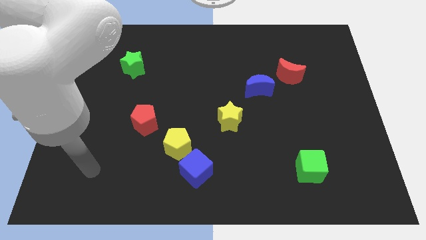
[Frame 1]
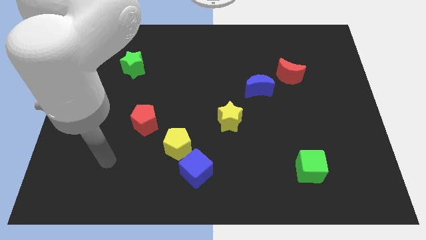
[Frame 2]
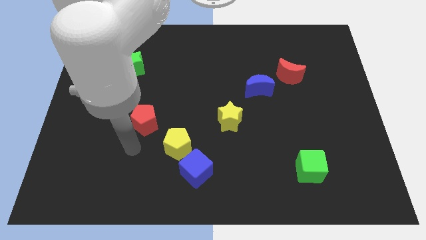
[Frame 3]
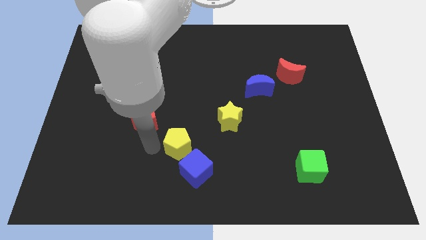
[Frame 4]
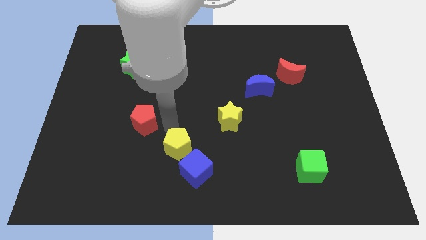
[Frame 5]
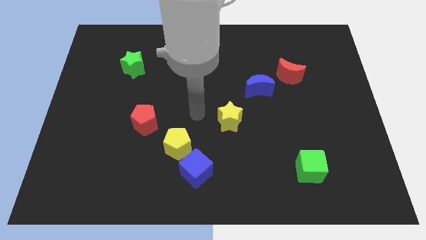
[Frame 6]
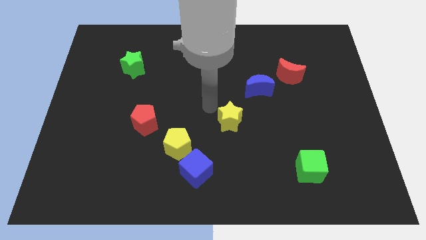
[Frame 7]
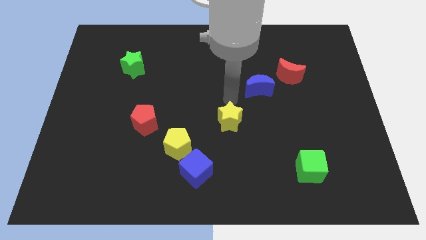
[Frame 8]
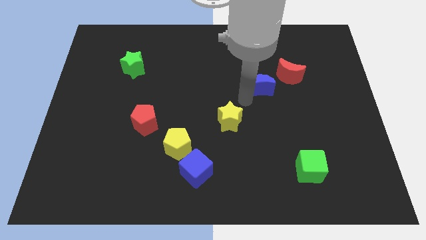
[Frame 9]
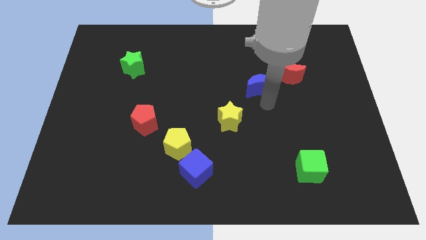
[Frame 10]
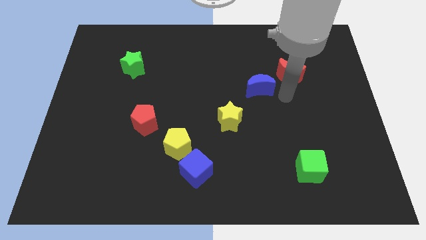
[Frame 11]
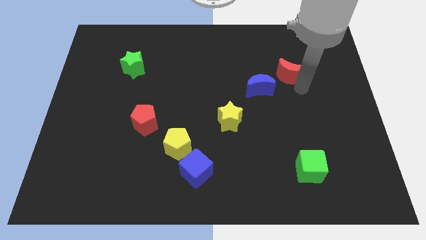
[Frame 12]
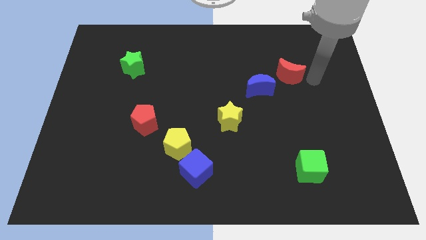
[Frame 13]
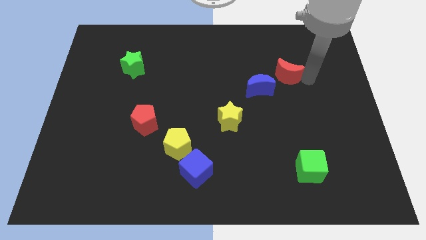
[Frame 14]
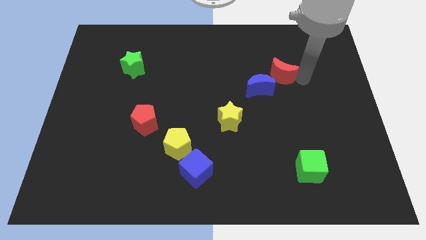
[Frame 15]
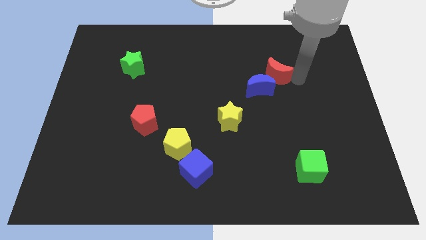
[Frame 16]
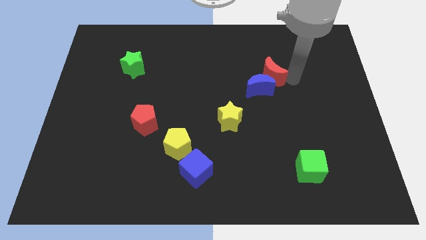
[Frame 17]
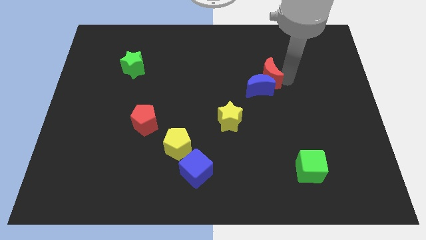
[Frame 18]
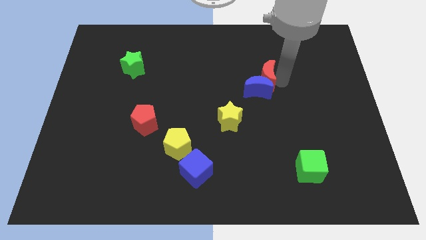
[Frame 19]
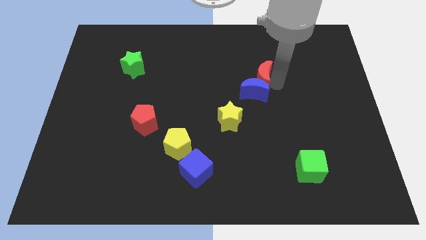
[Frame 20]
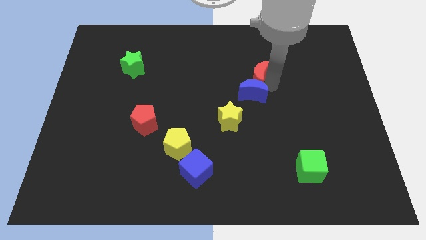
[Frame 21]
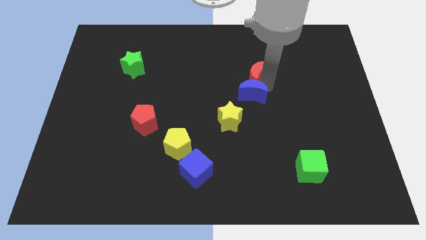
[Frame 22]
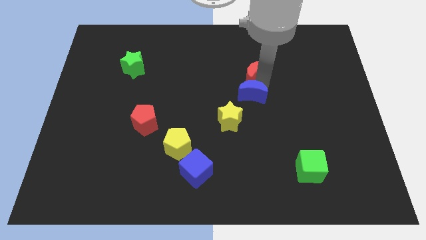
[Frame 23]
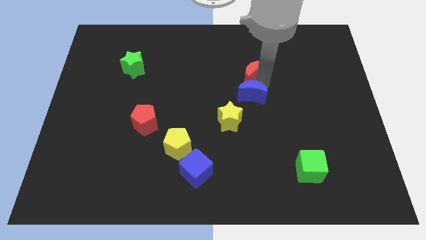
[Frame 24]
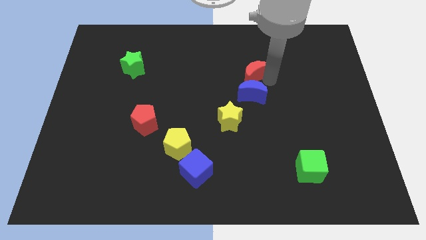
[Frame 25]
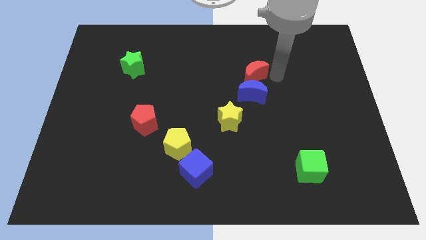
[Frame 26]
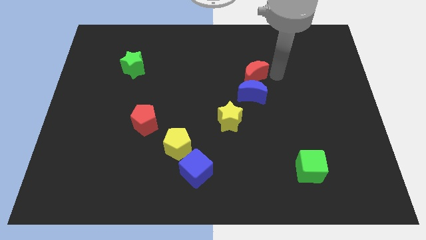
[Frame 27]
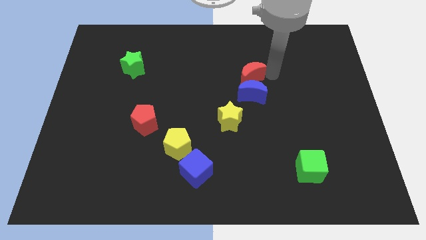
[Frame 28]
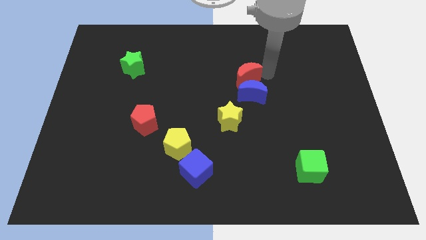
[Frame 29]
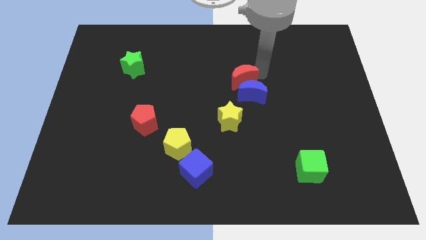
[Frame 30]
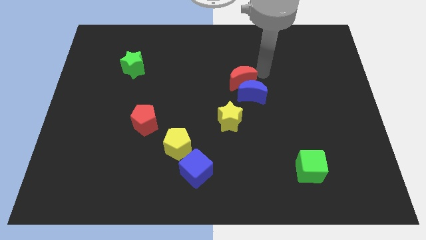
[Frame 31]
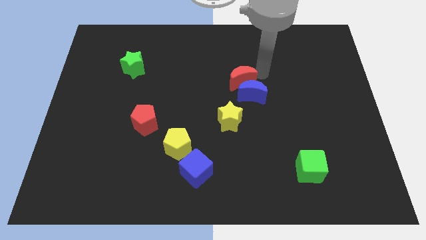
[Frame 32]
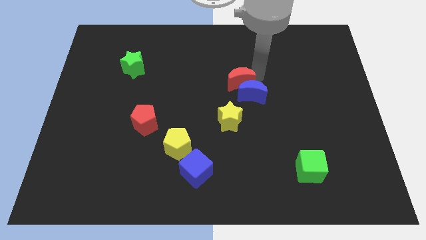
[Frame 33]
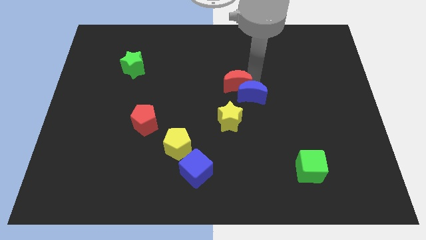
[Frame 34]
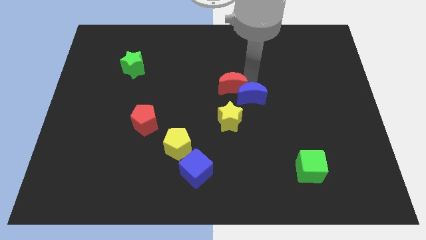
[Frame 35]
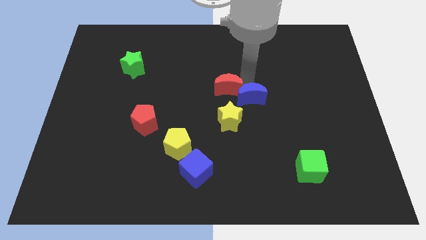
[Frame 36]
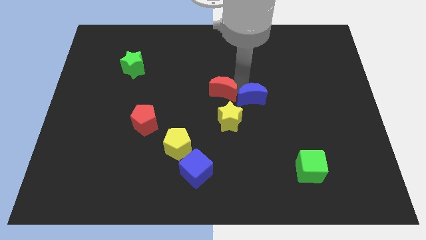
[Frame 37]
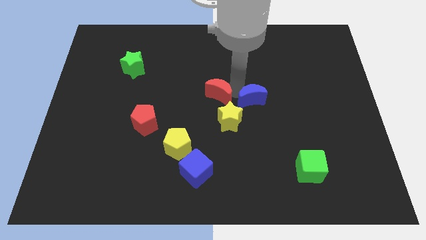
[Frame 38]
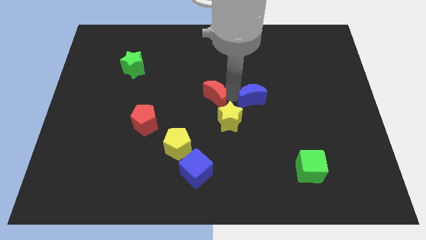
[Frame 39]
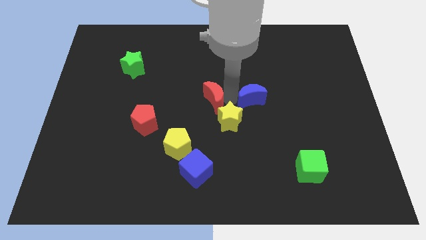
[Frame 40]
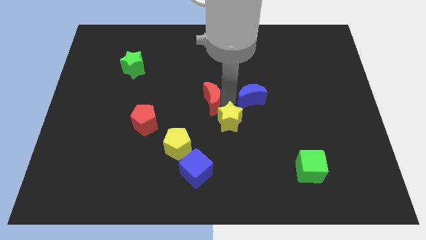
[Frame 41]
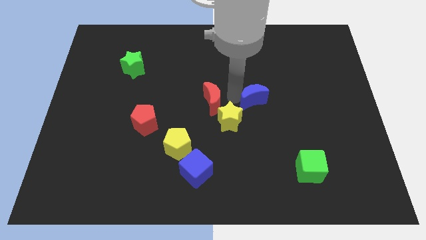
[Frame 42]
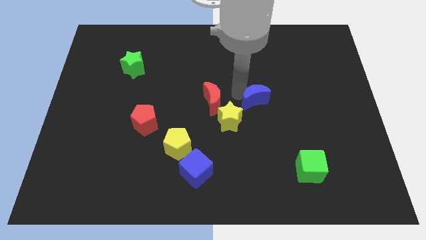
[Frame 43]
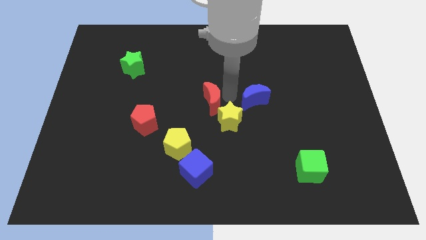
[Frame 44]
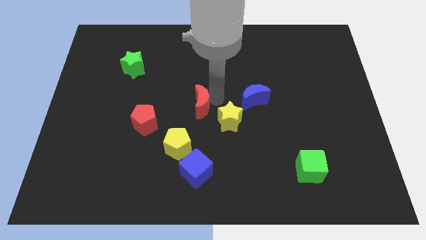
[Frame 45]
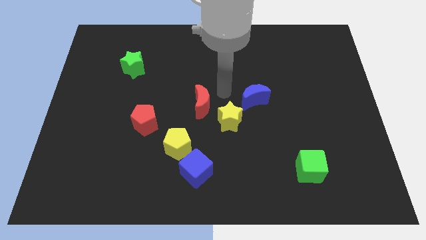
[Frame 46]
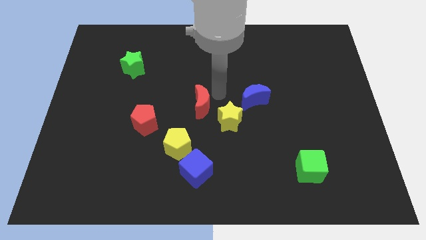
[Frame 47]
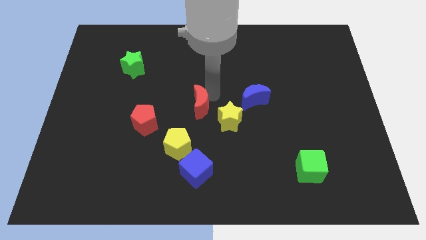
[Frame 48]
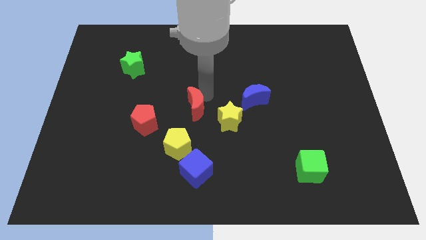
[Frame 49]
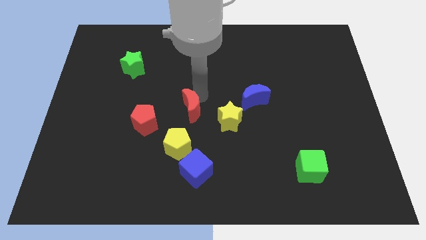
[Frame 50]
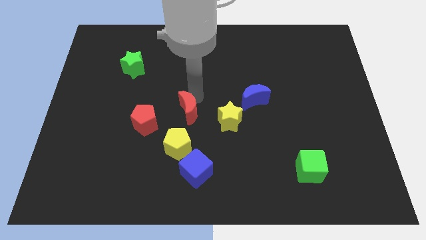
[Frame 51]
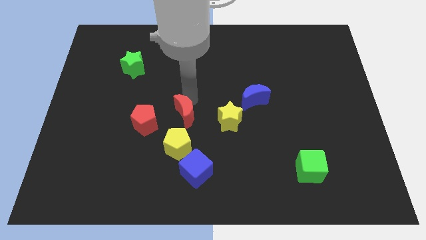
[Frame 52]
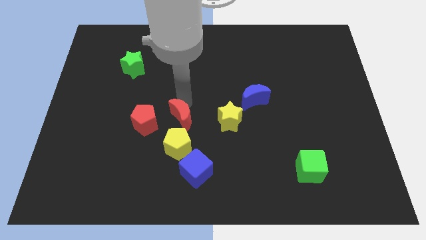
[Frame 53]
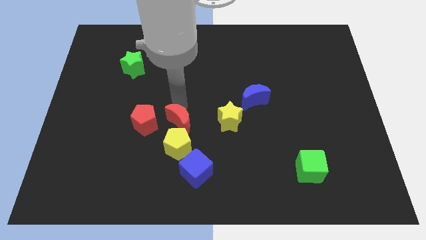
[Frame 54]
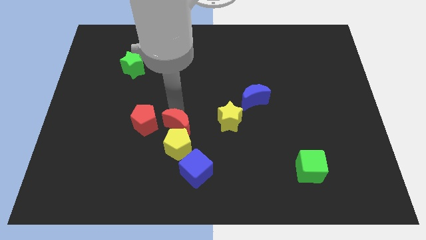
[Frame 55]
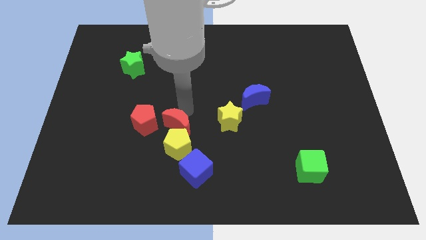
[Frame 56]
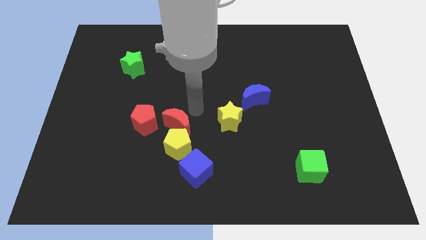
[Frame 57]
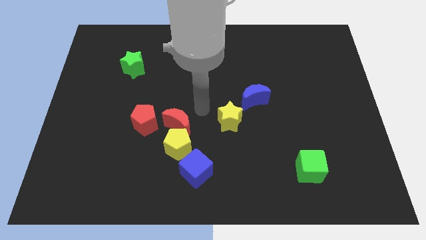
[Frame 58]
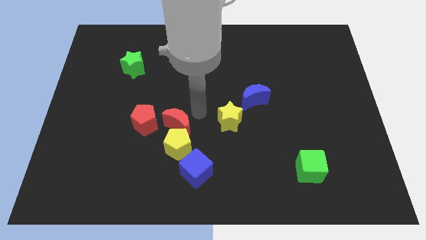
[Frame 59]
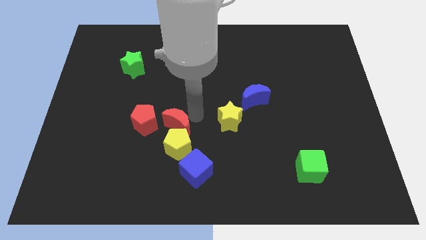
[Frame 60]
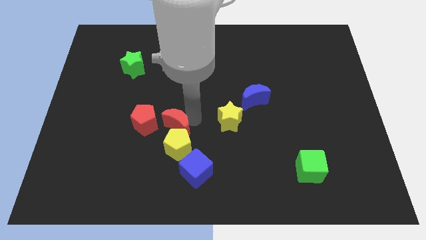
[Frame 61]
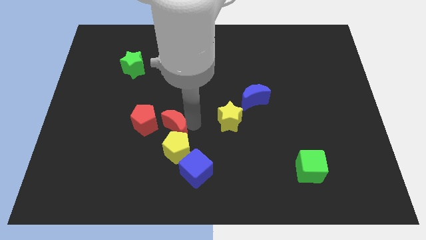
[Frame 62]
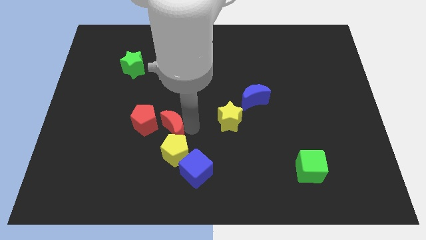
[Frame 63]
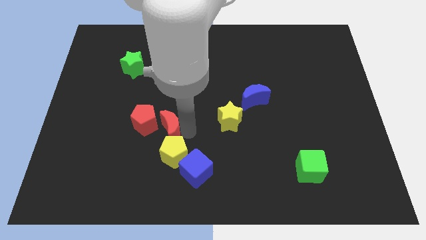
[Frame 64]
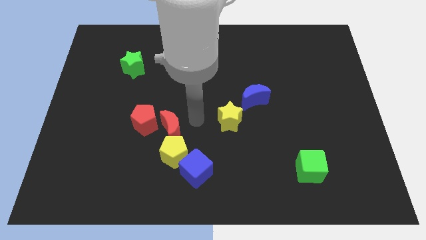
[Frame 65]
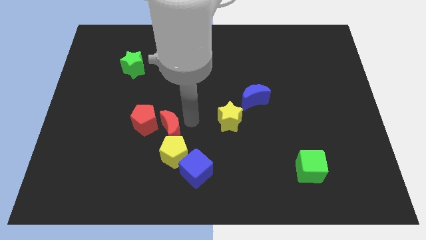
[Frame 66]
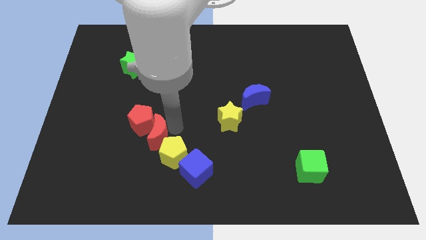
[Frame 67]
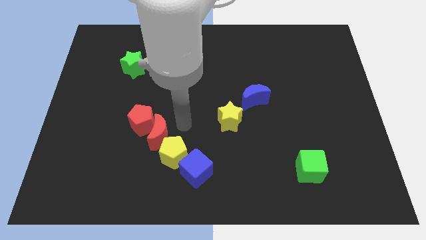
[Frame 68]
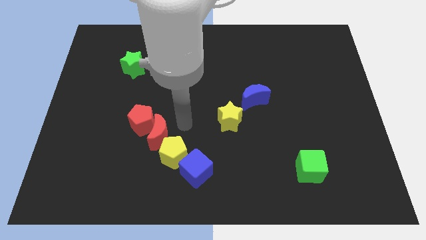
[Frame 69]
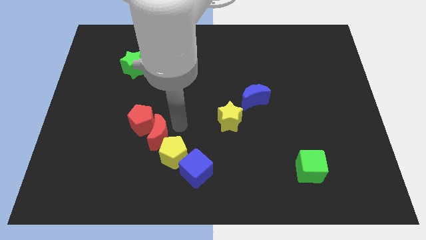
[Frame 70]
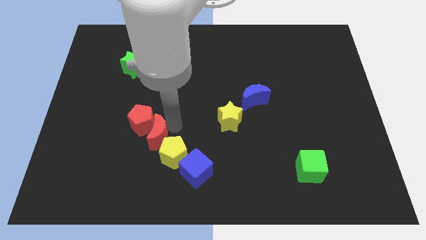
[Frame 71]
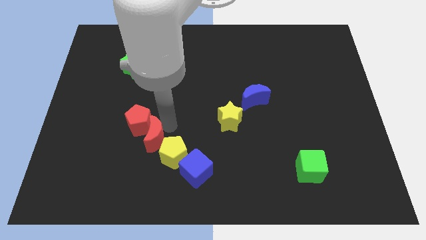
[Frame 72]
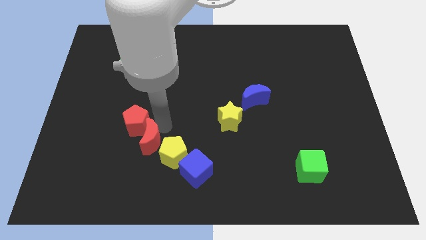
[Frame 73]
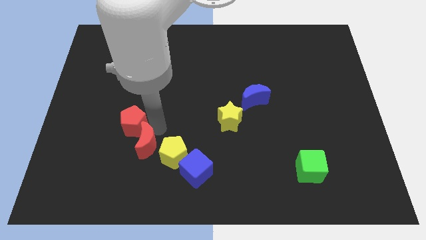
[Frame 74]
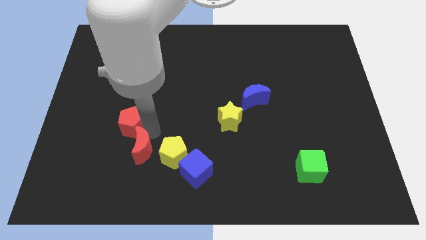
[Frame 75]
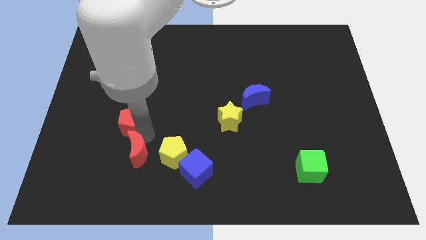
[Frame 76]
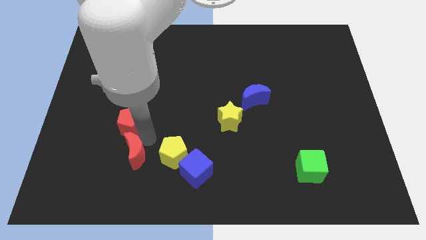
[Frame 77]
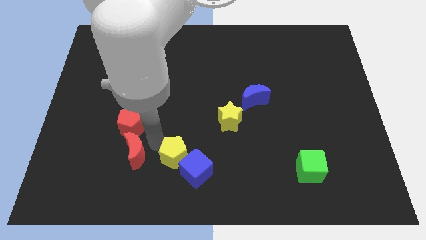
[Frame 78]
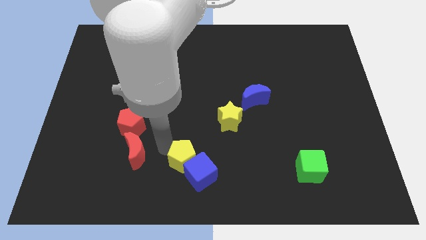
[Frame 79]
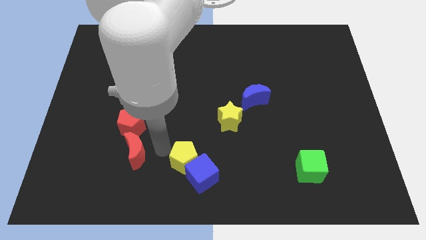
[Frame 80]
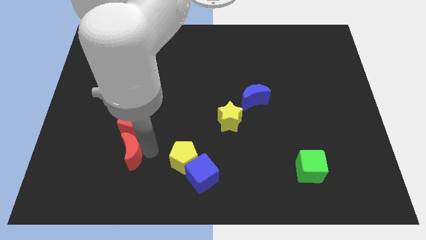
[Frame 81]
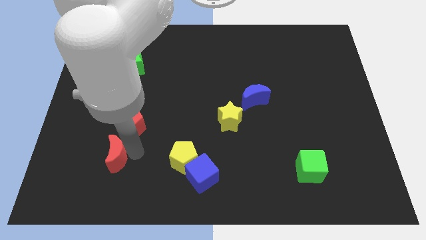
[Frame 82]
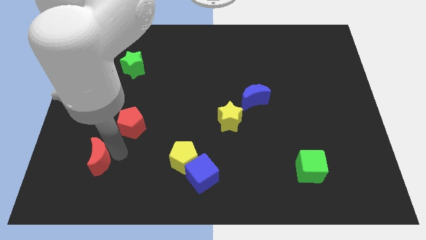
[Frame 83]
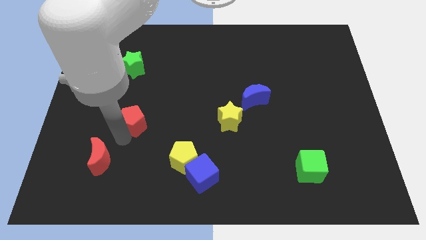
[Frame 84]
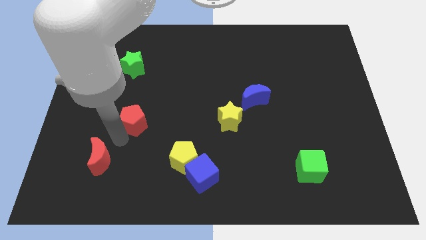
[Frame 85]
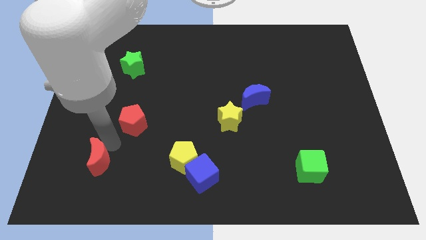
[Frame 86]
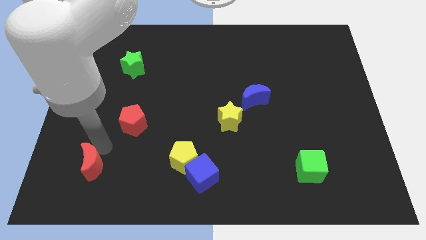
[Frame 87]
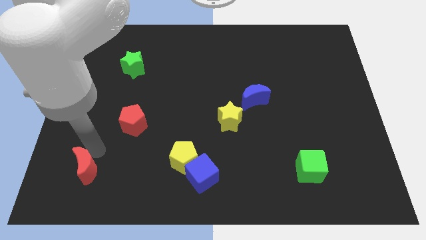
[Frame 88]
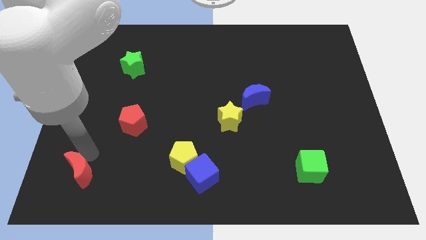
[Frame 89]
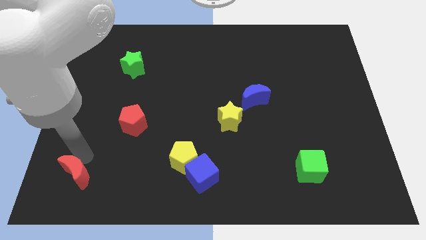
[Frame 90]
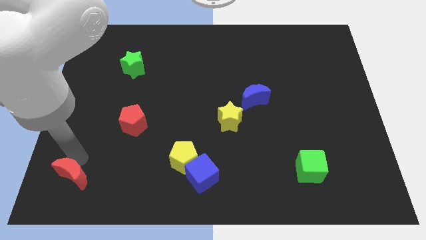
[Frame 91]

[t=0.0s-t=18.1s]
slide the red moon to the bottom left
